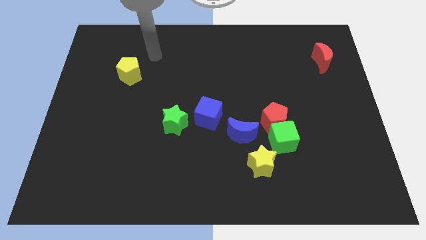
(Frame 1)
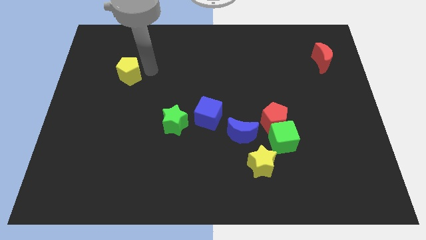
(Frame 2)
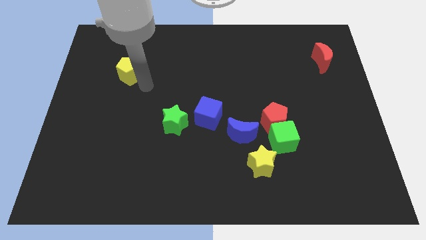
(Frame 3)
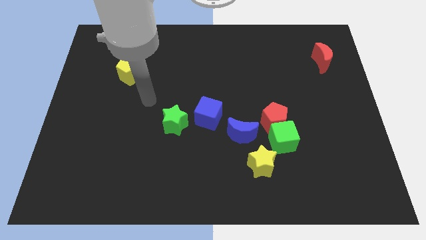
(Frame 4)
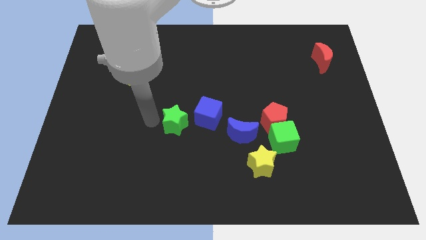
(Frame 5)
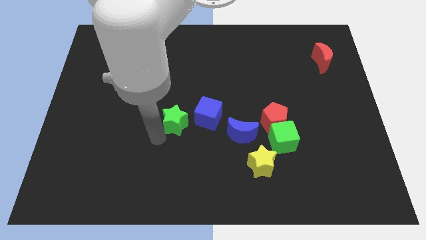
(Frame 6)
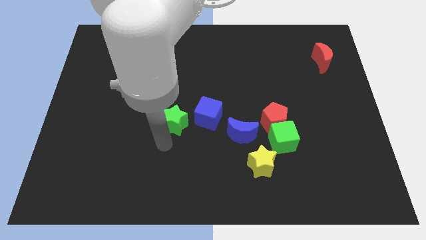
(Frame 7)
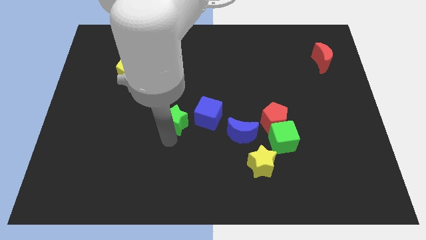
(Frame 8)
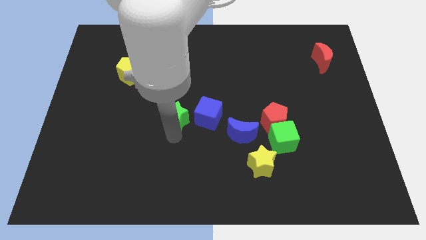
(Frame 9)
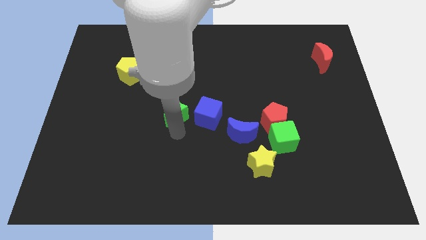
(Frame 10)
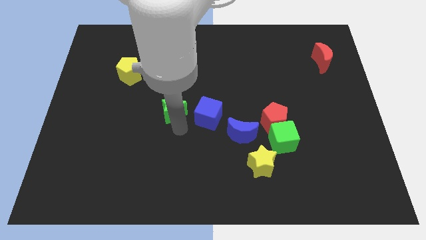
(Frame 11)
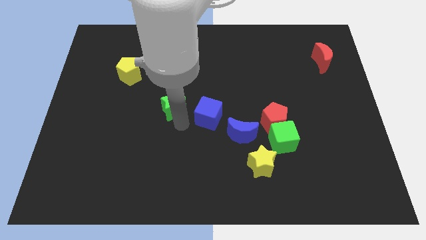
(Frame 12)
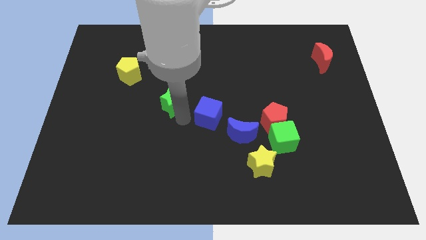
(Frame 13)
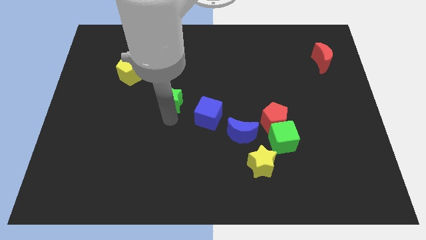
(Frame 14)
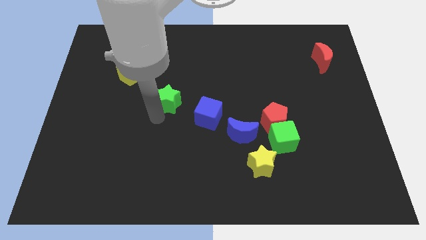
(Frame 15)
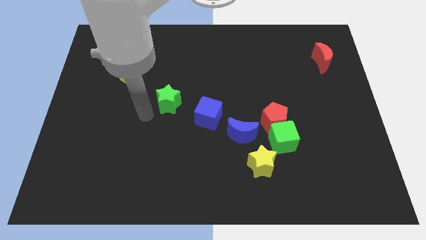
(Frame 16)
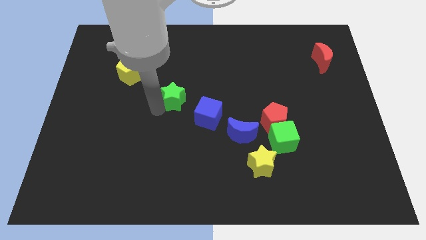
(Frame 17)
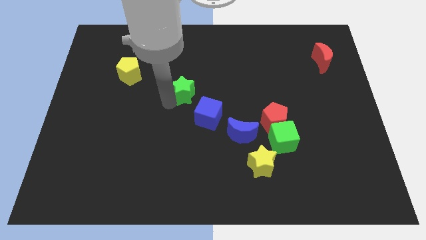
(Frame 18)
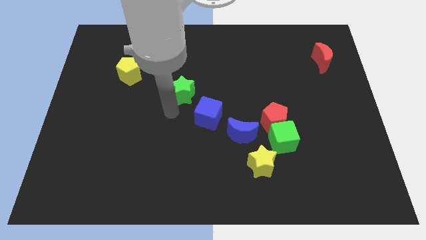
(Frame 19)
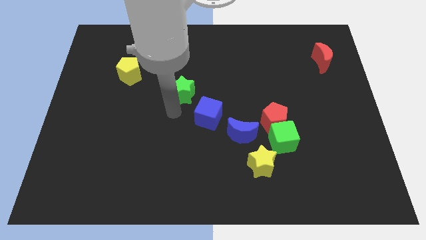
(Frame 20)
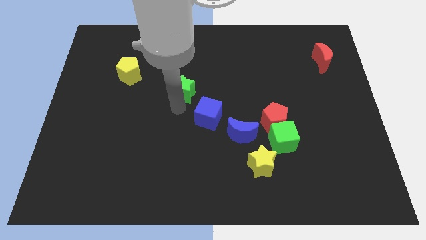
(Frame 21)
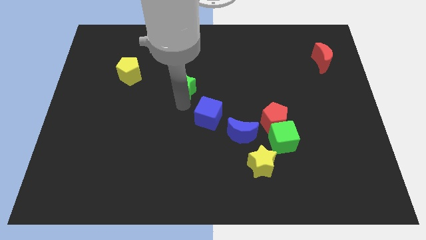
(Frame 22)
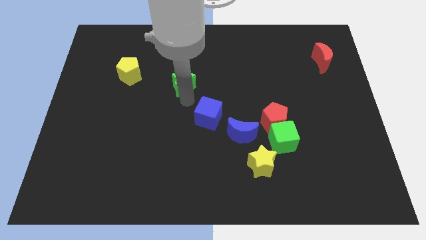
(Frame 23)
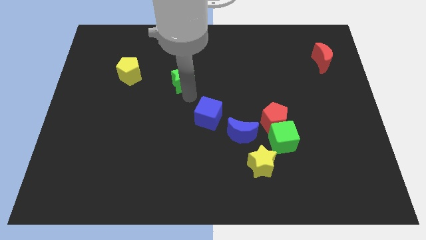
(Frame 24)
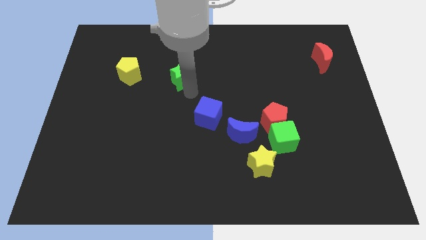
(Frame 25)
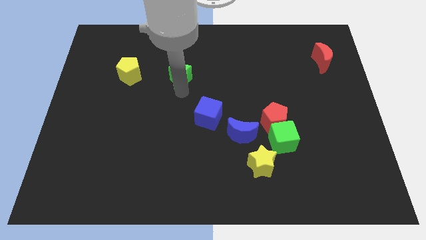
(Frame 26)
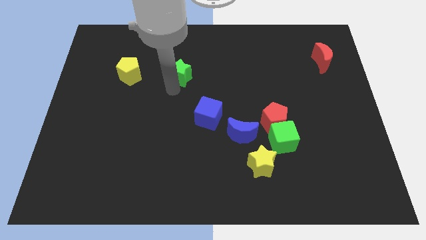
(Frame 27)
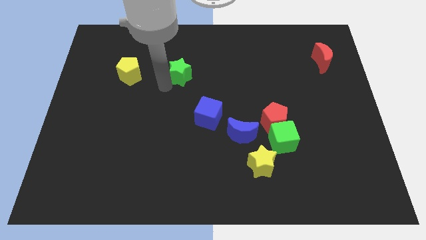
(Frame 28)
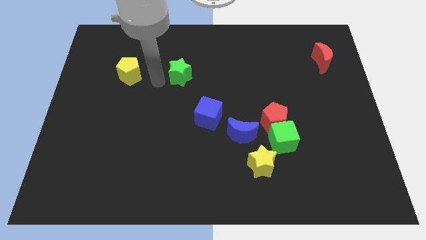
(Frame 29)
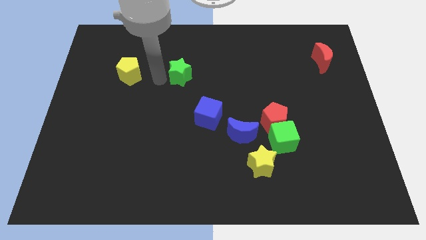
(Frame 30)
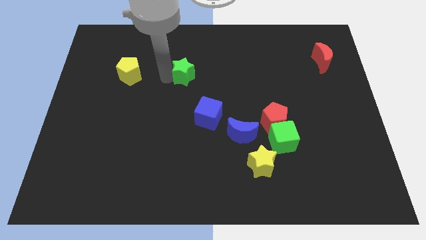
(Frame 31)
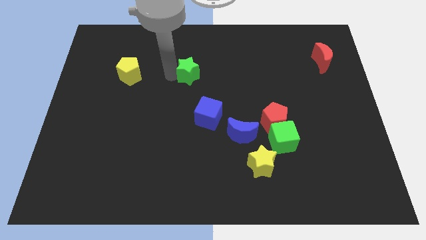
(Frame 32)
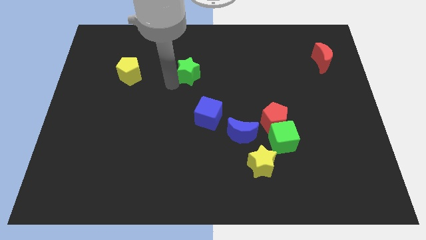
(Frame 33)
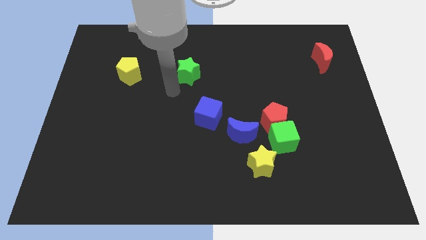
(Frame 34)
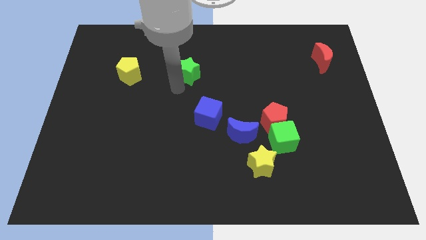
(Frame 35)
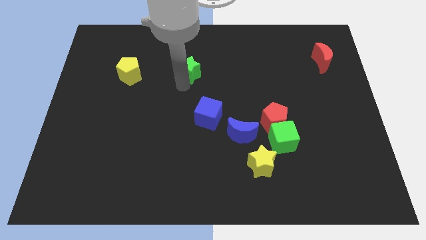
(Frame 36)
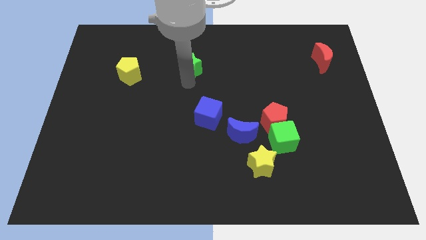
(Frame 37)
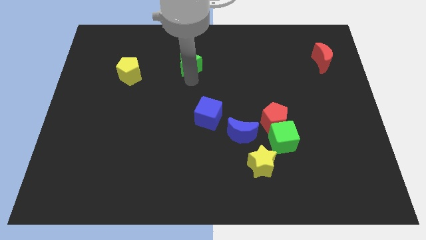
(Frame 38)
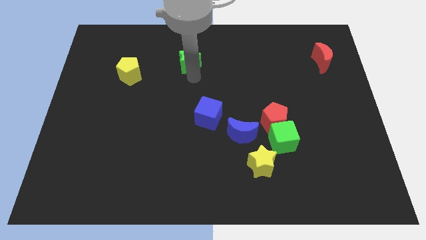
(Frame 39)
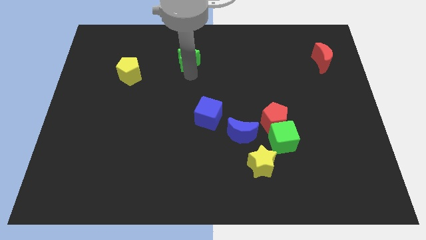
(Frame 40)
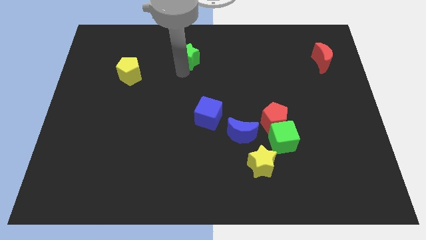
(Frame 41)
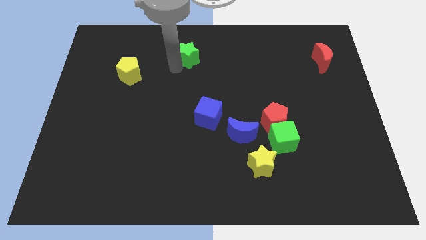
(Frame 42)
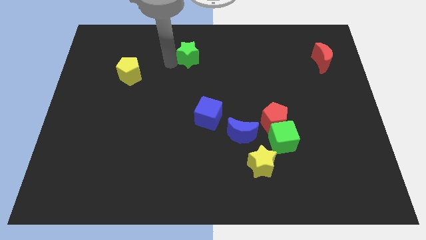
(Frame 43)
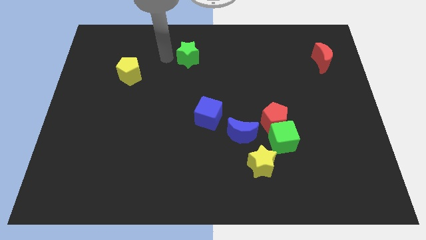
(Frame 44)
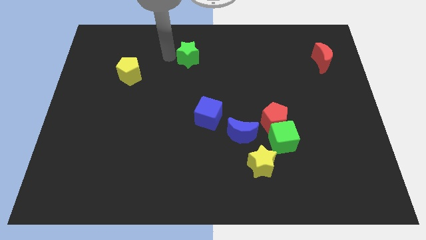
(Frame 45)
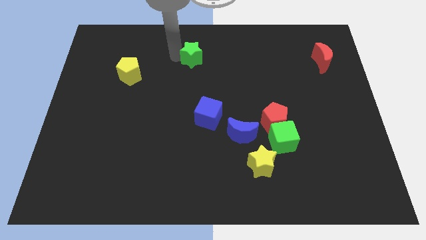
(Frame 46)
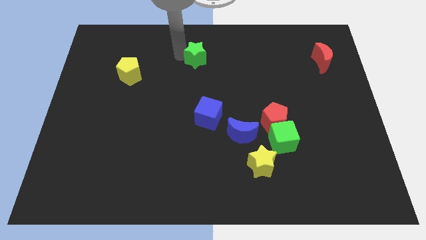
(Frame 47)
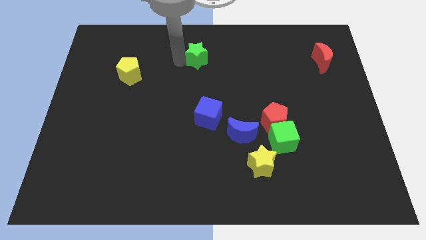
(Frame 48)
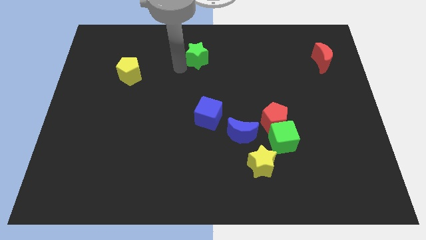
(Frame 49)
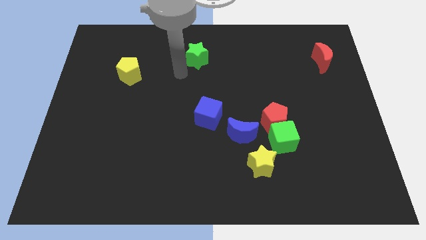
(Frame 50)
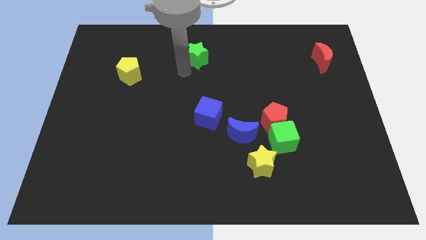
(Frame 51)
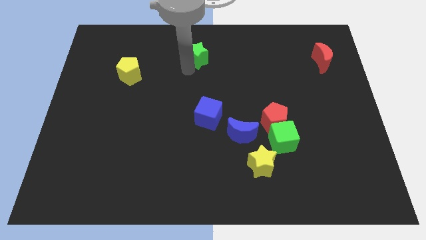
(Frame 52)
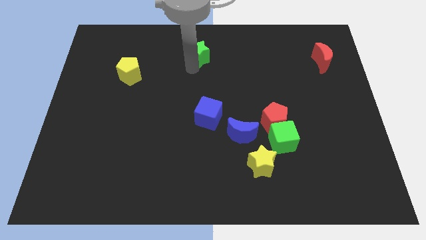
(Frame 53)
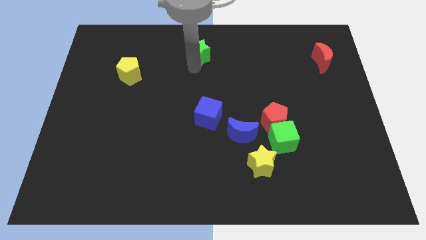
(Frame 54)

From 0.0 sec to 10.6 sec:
move the green star to the towards your base

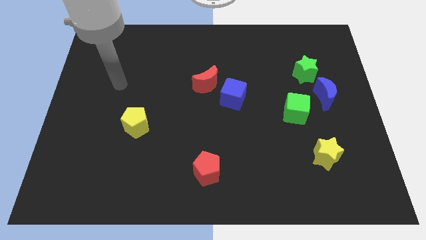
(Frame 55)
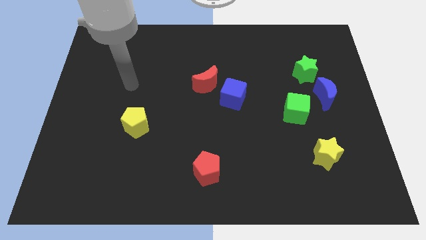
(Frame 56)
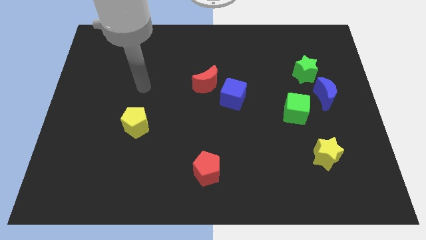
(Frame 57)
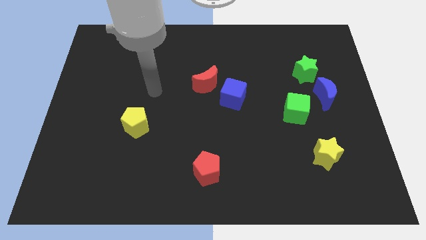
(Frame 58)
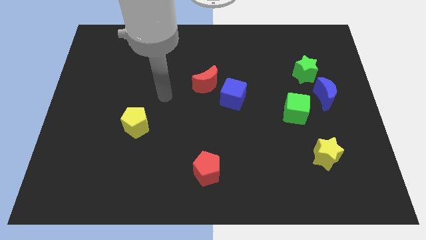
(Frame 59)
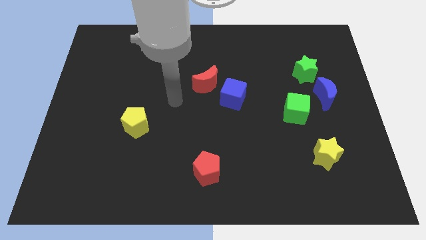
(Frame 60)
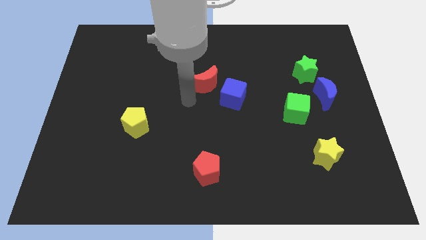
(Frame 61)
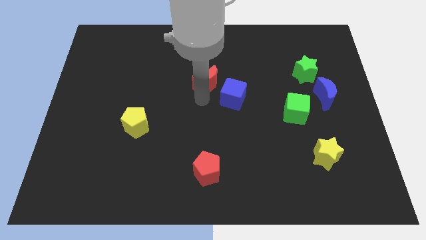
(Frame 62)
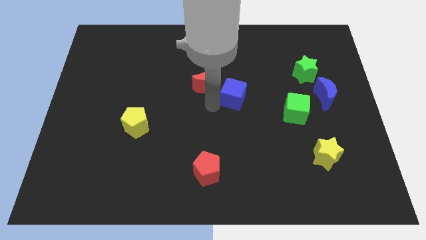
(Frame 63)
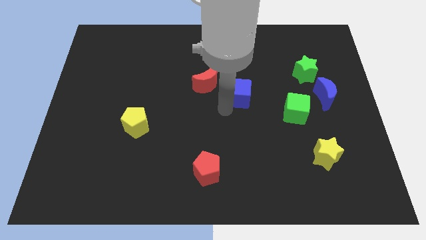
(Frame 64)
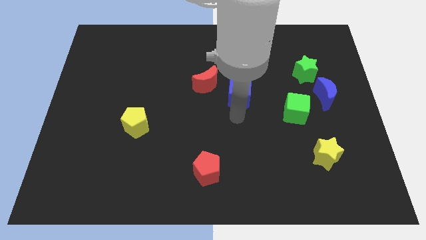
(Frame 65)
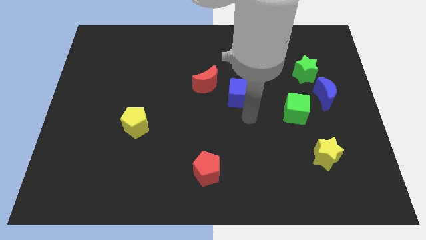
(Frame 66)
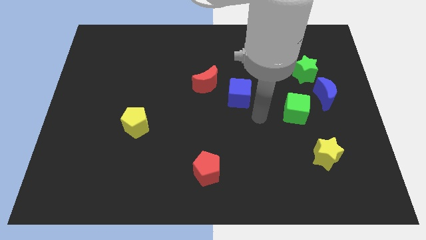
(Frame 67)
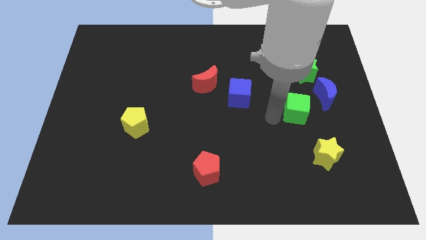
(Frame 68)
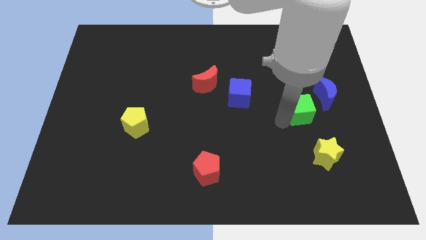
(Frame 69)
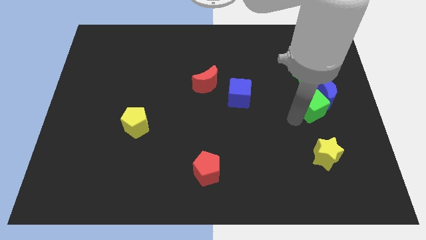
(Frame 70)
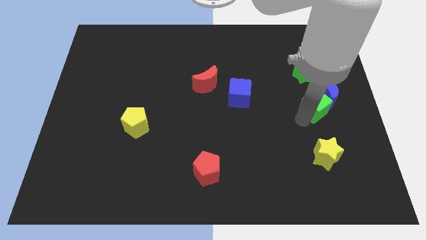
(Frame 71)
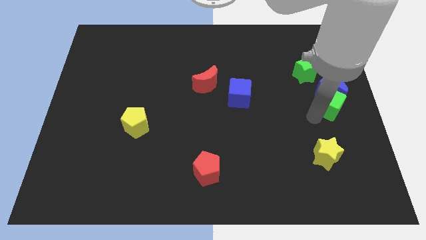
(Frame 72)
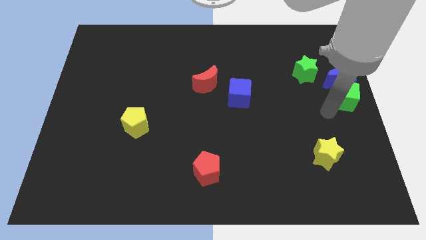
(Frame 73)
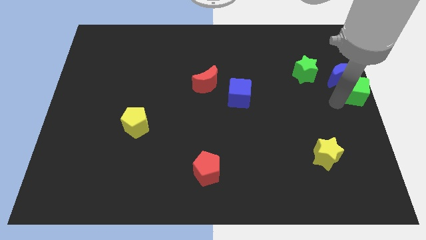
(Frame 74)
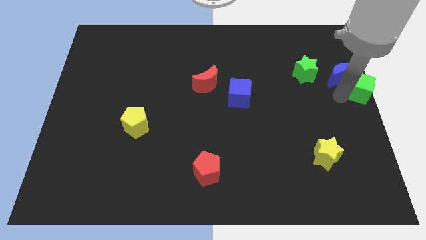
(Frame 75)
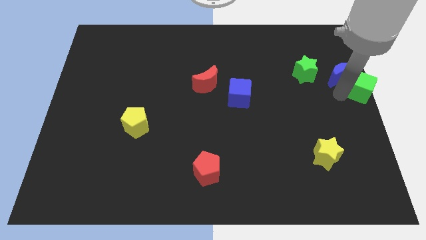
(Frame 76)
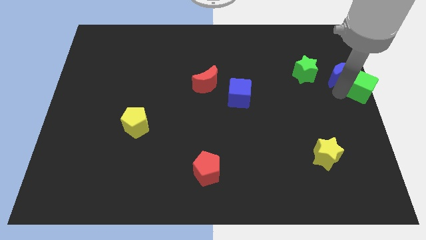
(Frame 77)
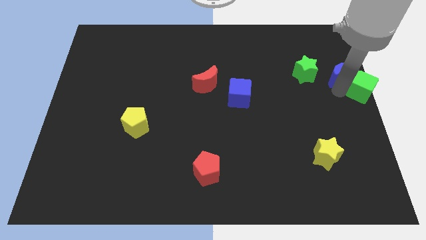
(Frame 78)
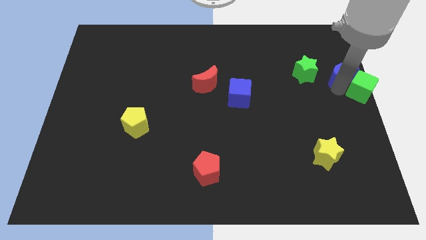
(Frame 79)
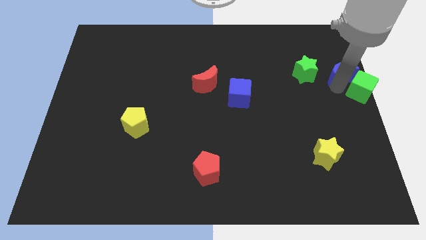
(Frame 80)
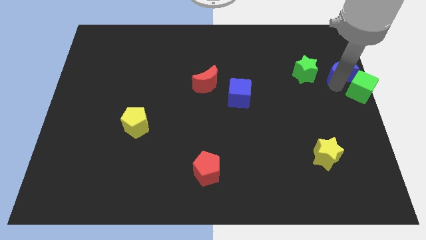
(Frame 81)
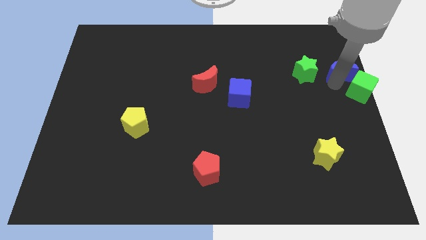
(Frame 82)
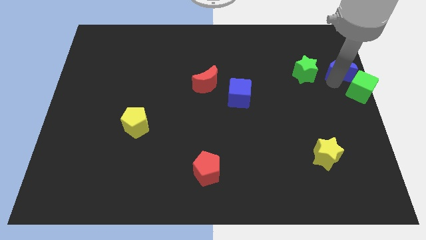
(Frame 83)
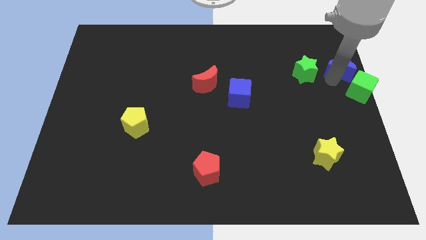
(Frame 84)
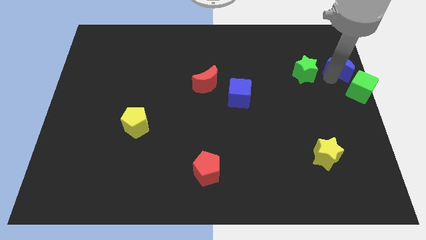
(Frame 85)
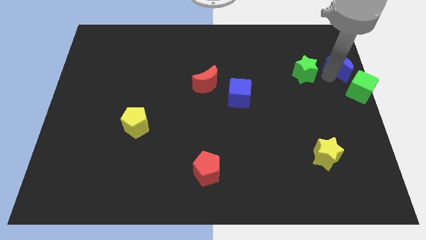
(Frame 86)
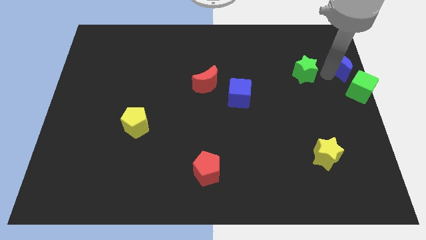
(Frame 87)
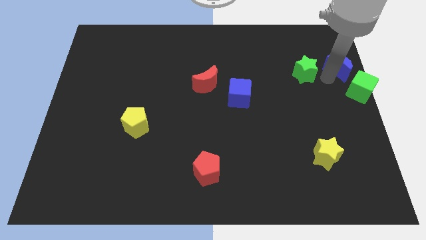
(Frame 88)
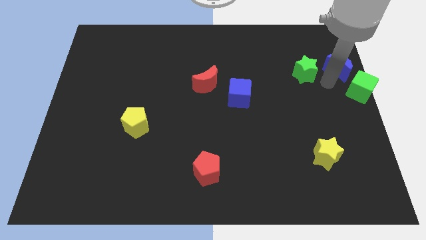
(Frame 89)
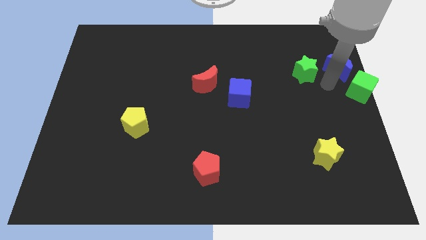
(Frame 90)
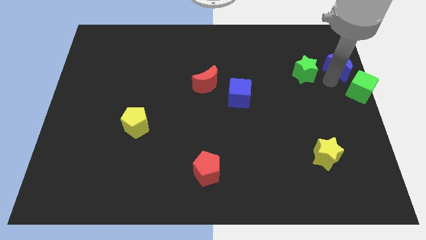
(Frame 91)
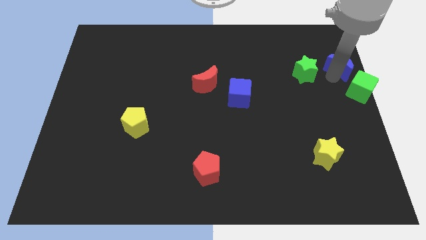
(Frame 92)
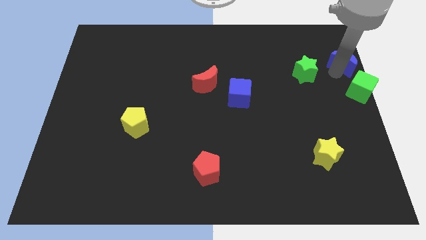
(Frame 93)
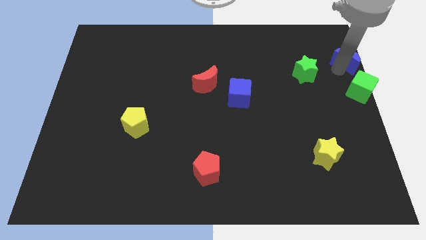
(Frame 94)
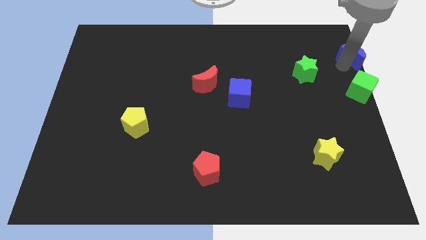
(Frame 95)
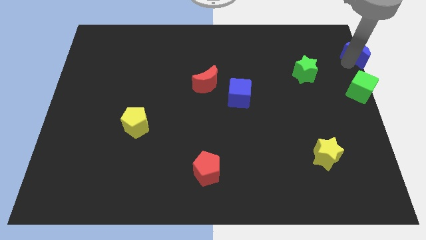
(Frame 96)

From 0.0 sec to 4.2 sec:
push the blue moon to the top right corner
